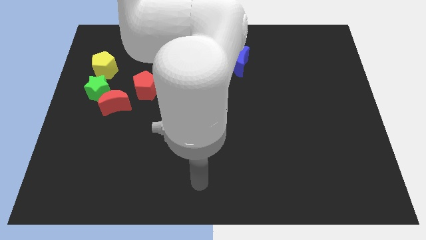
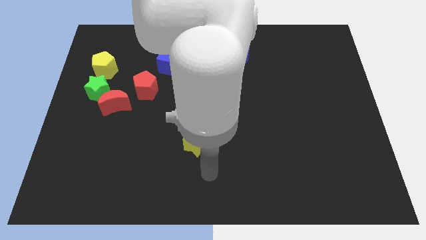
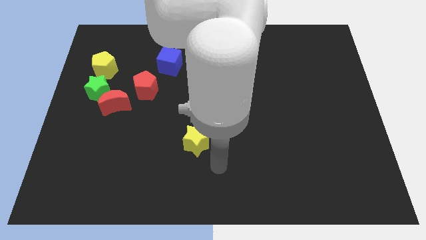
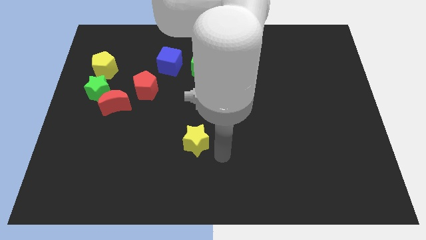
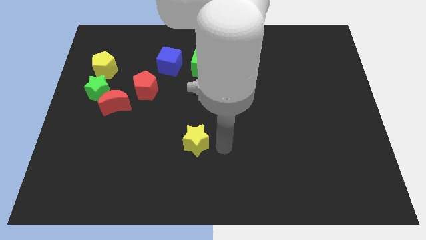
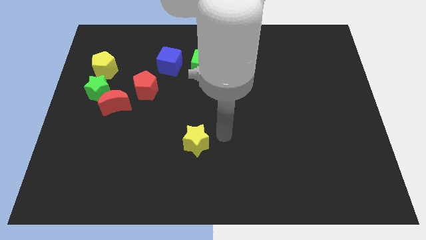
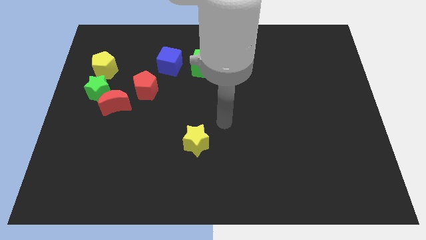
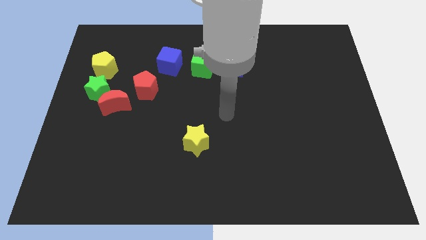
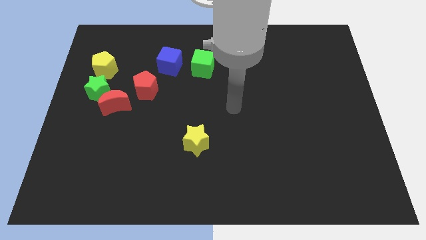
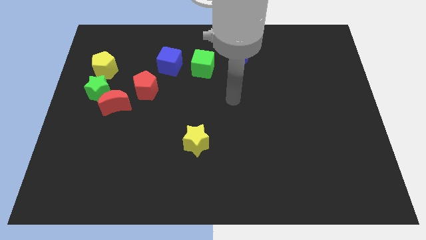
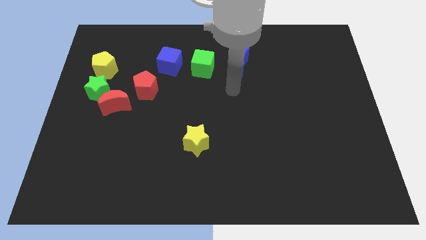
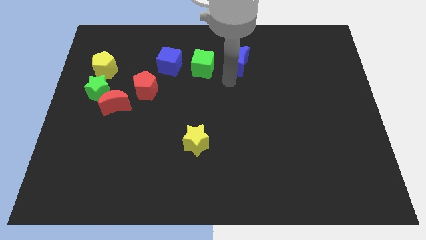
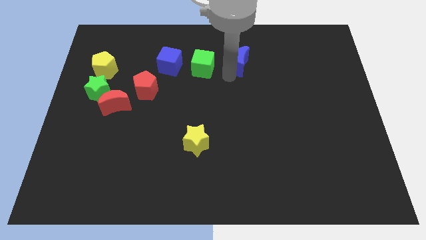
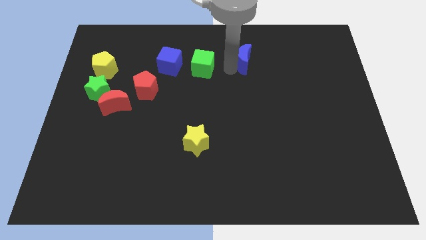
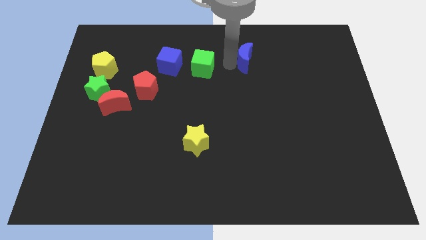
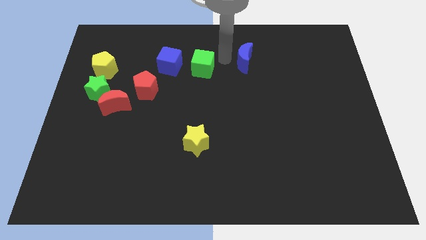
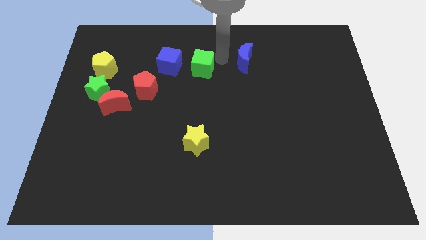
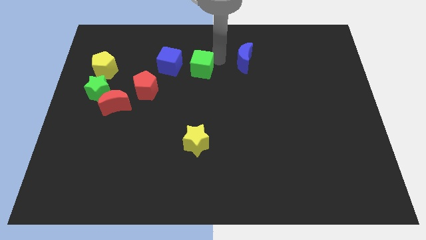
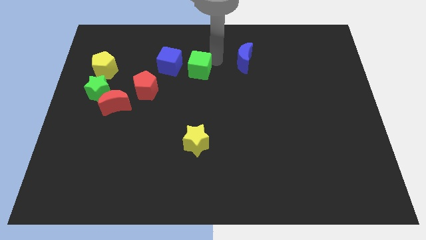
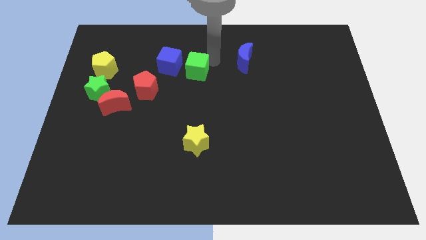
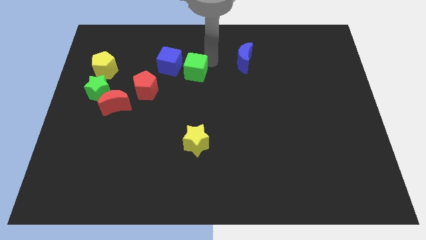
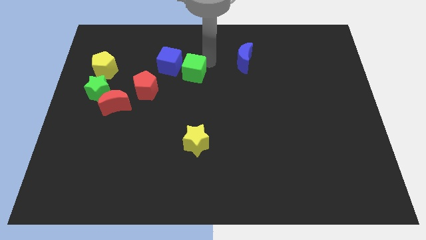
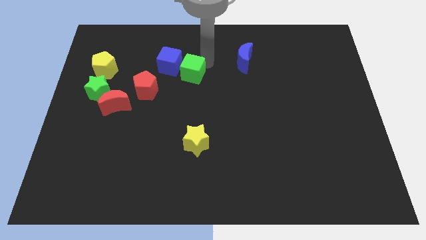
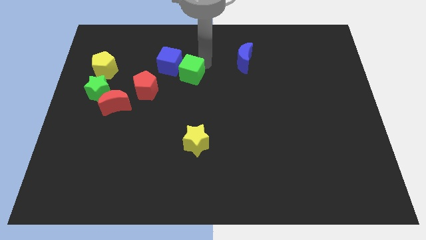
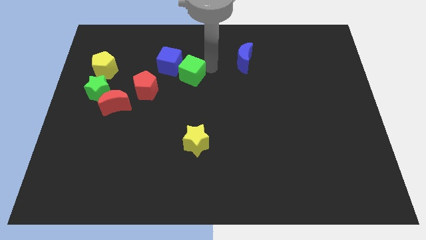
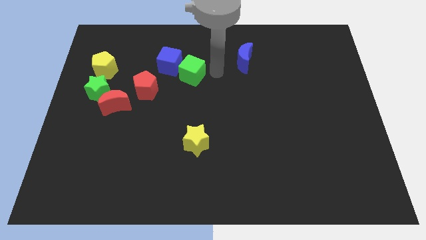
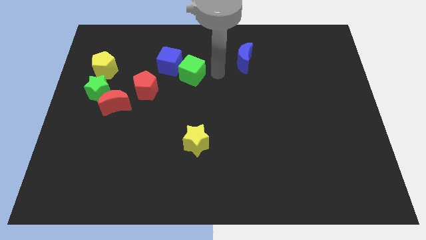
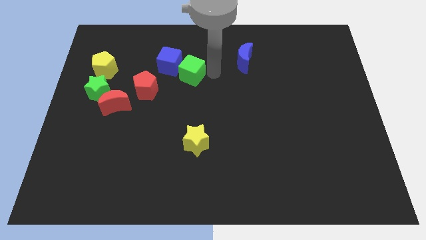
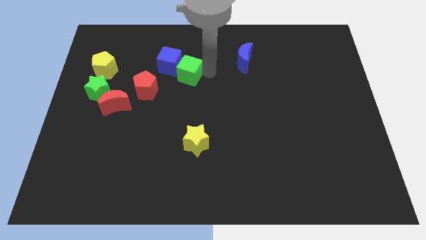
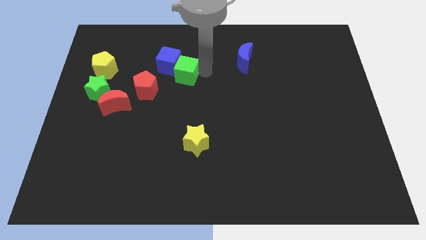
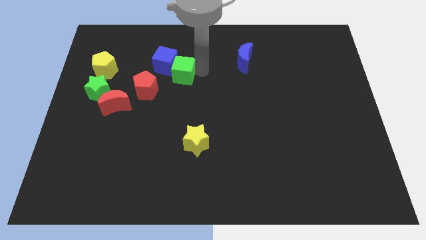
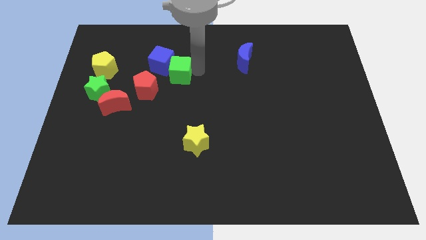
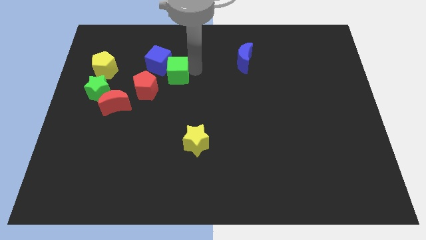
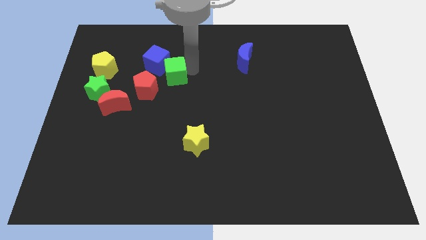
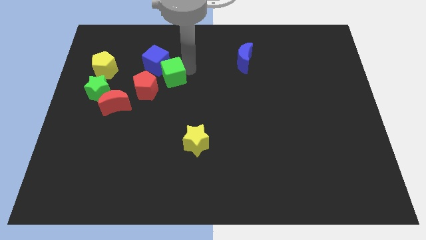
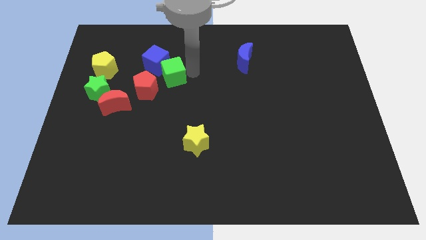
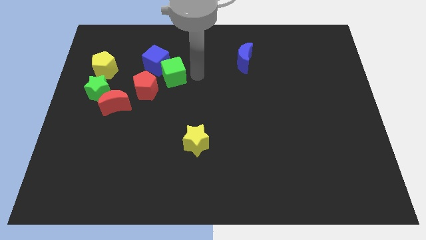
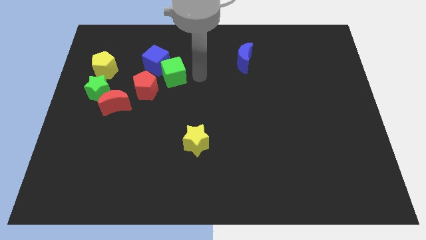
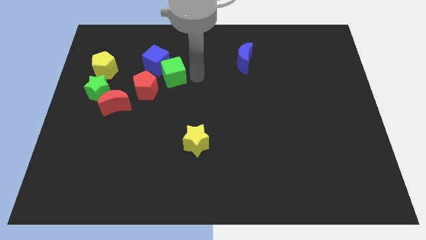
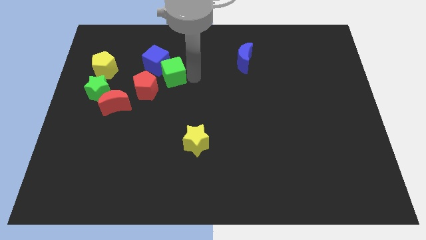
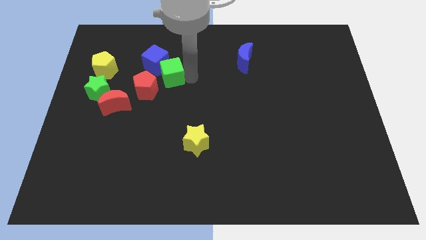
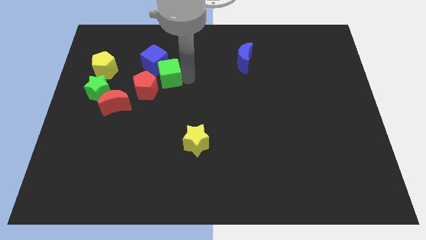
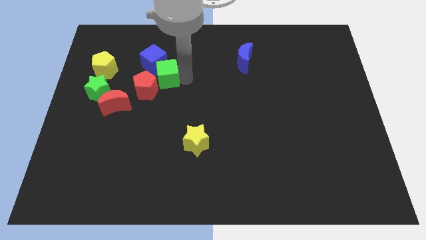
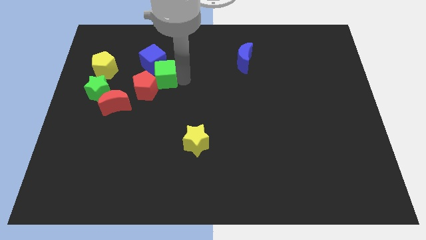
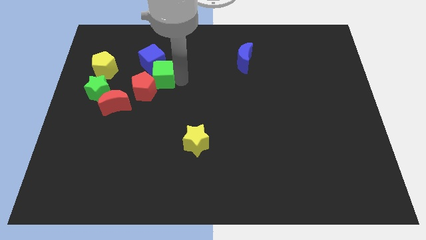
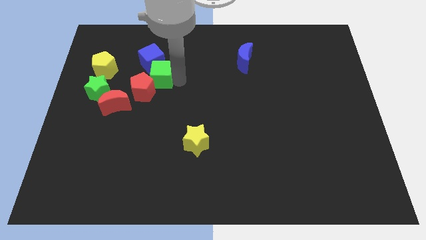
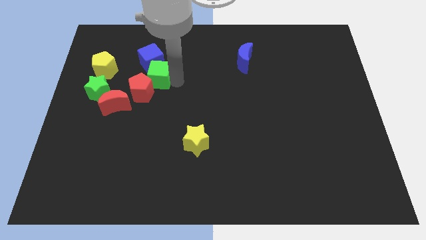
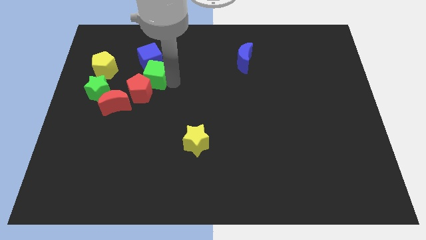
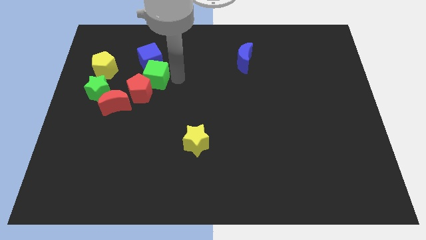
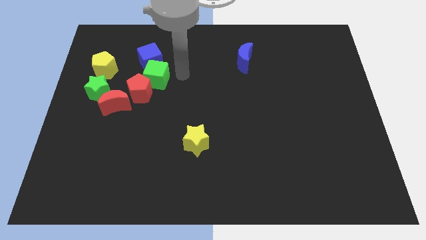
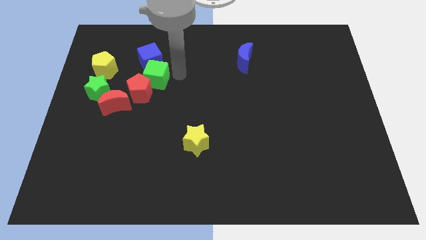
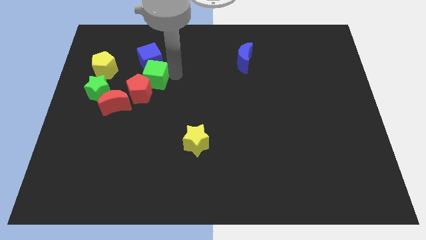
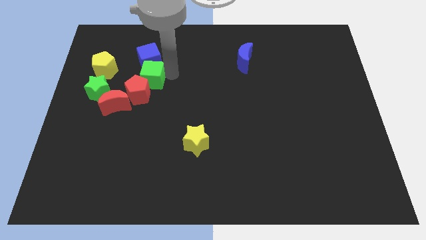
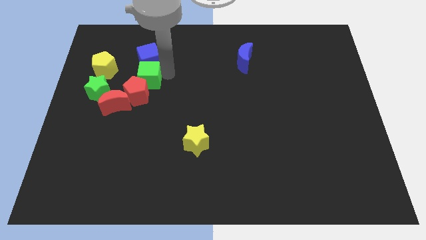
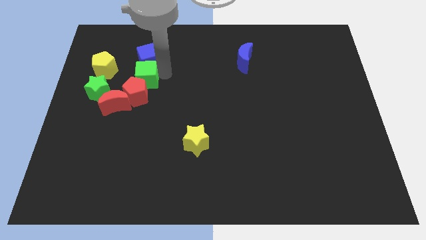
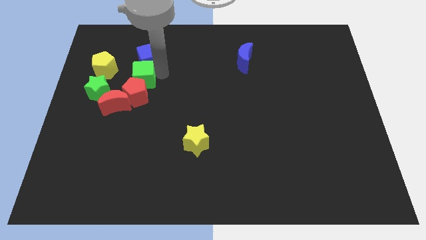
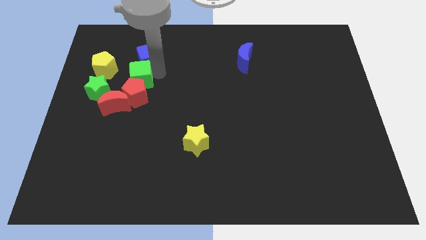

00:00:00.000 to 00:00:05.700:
put the green cube to the bottom right of the yellow pentagon
